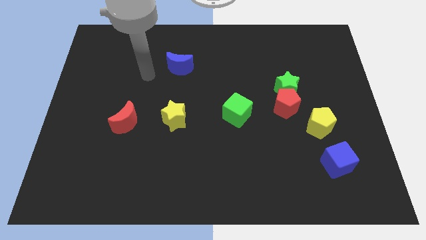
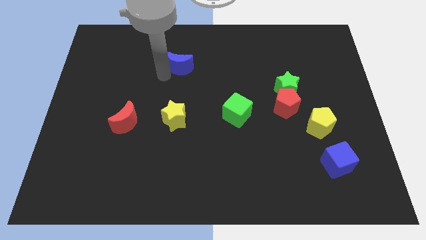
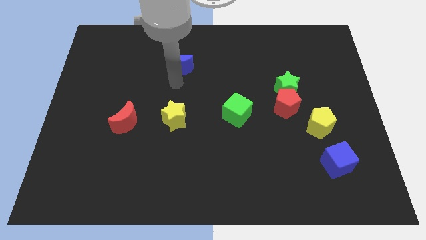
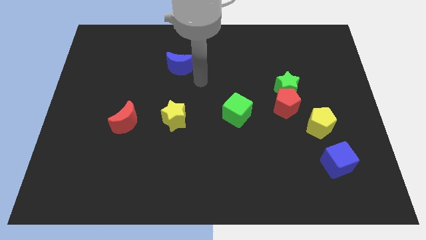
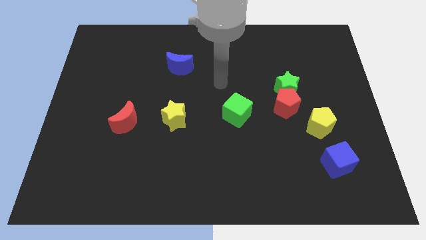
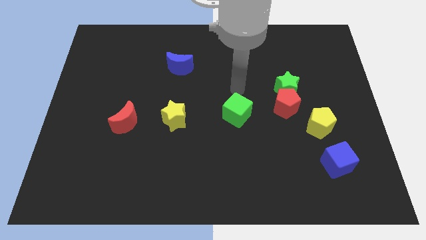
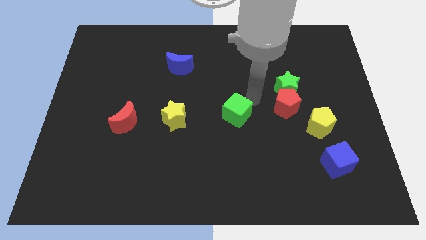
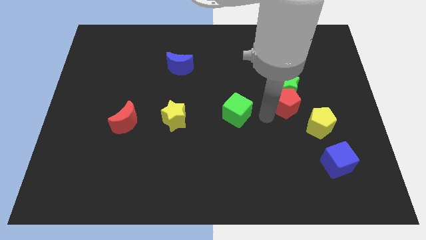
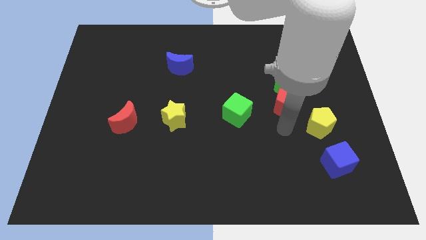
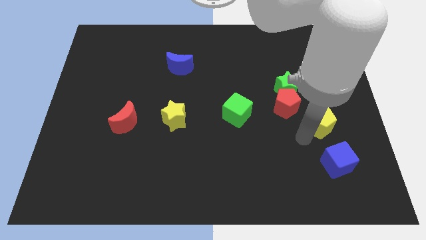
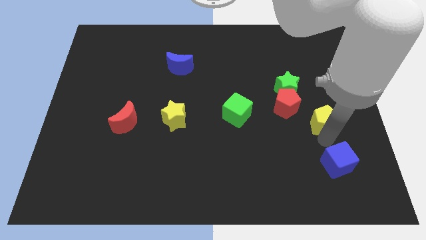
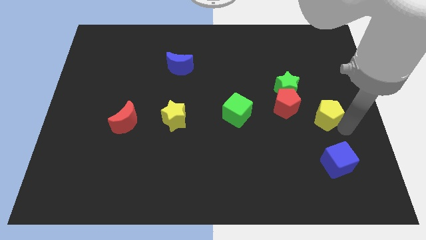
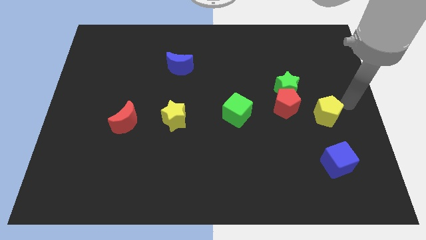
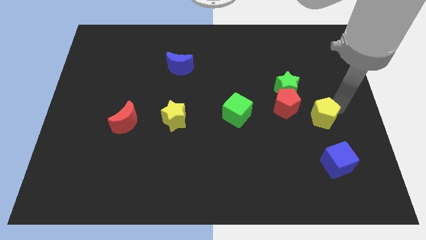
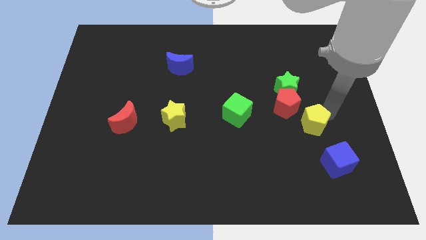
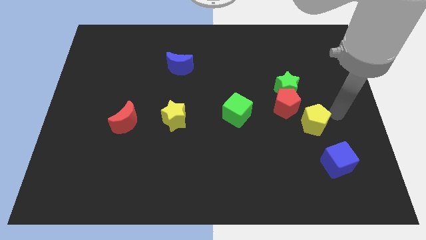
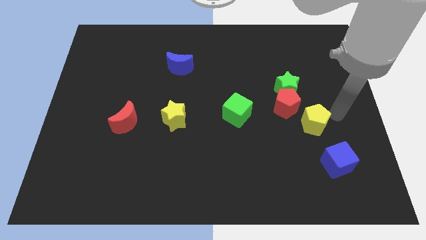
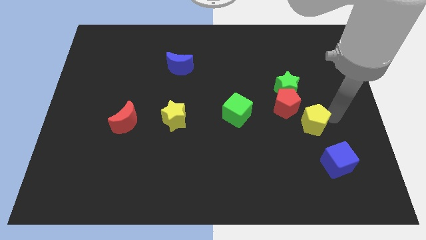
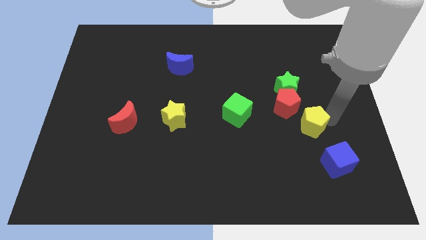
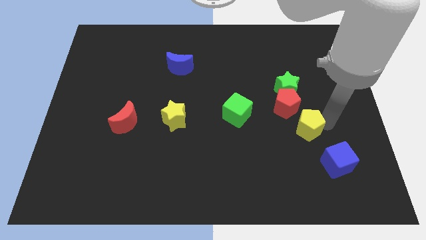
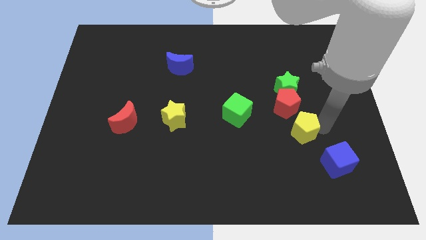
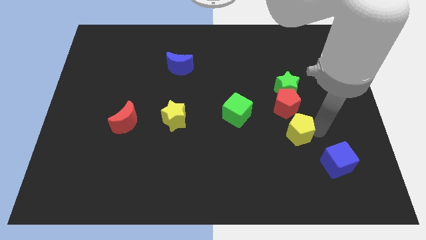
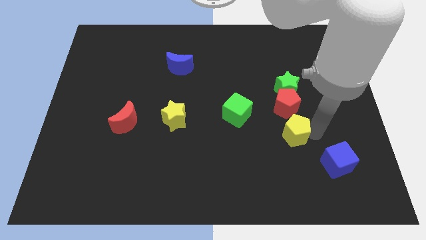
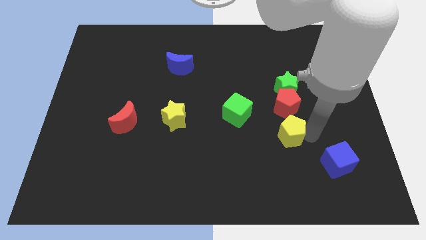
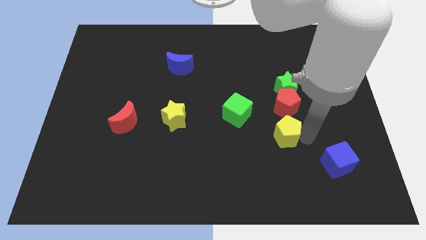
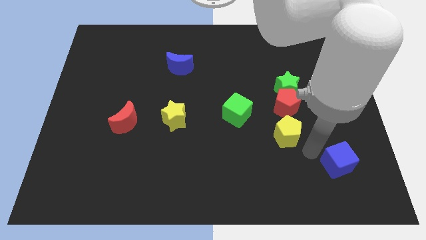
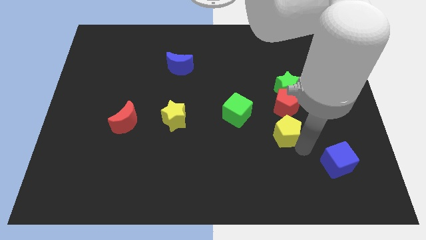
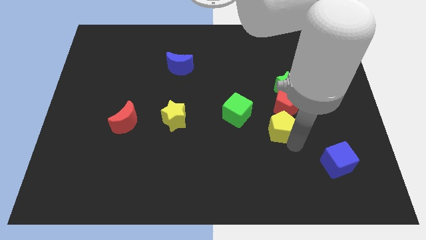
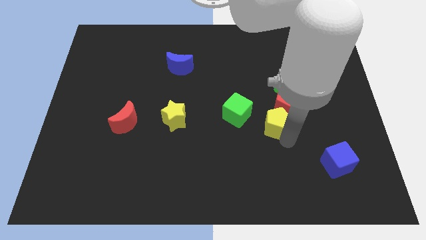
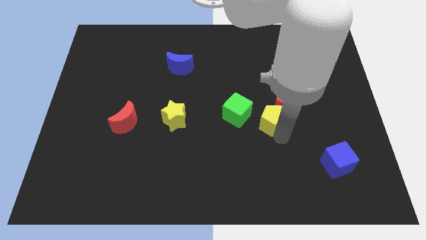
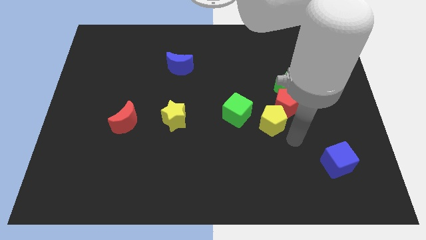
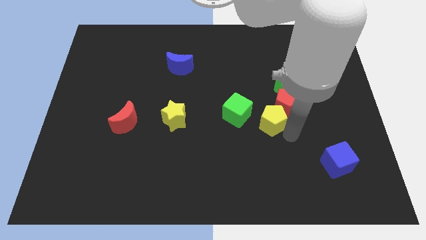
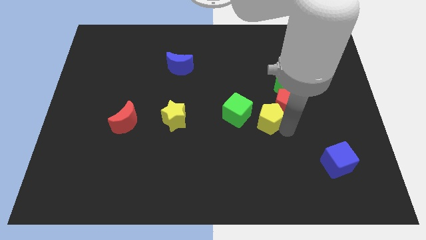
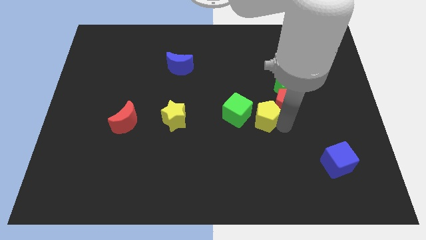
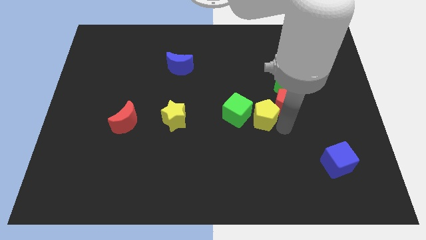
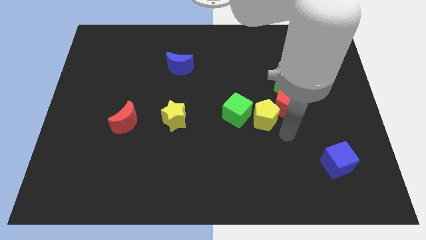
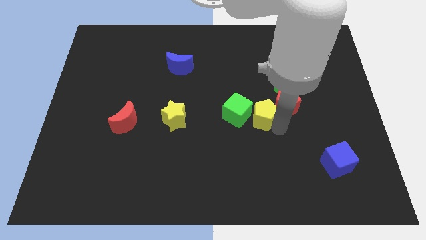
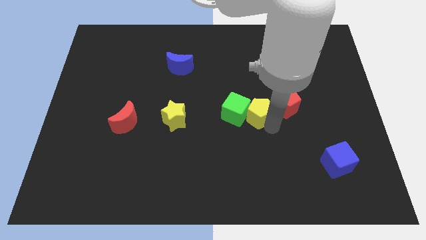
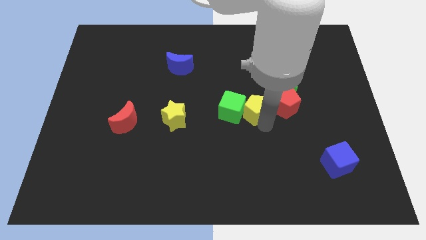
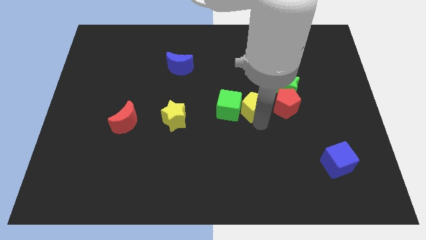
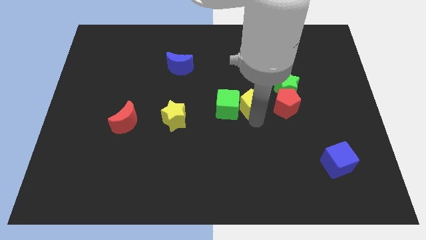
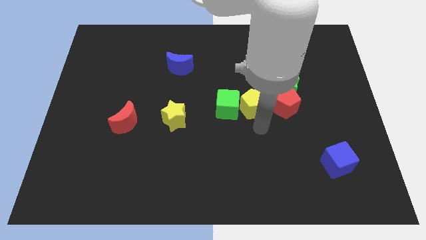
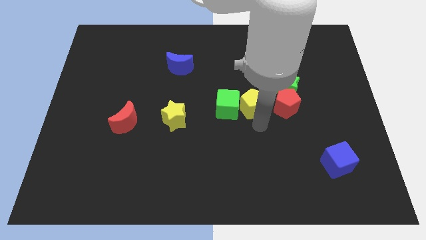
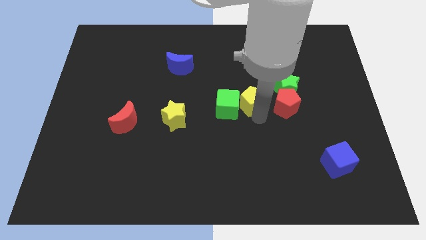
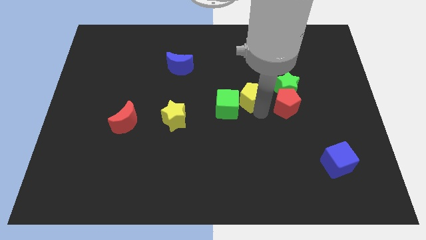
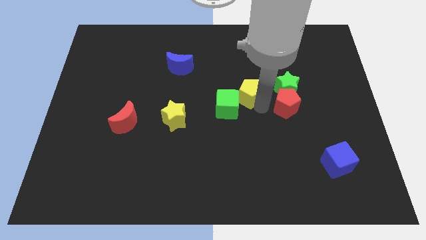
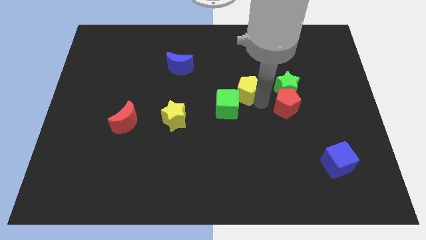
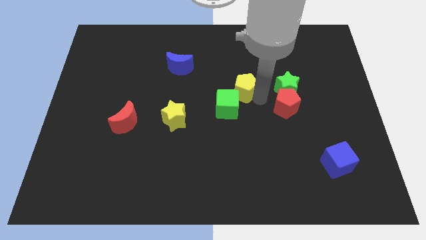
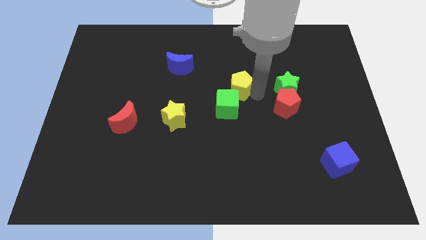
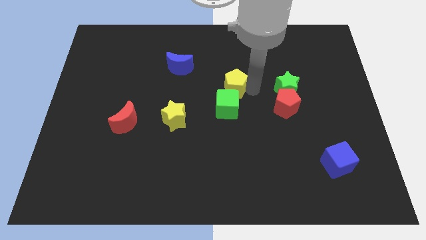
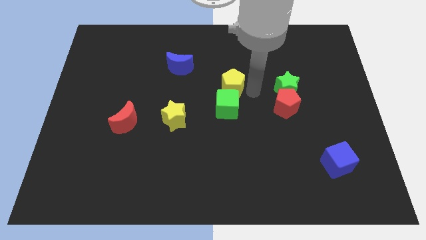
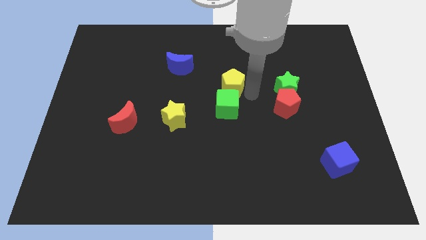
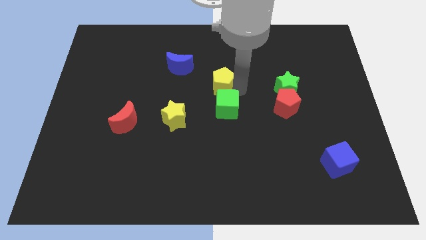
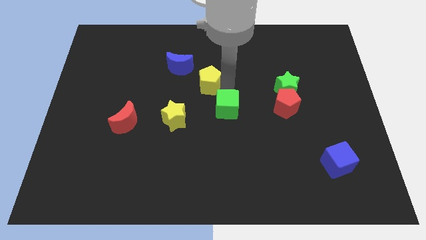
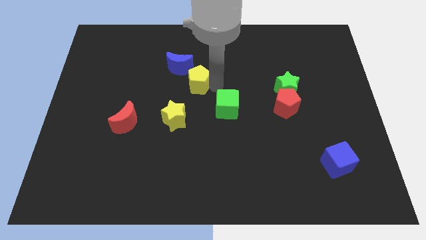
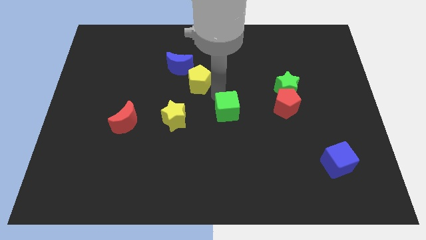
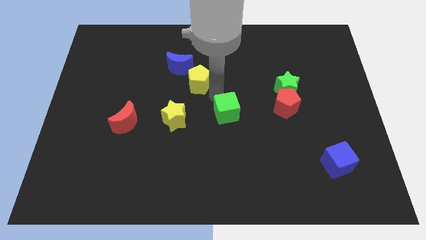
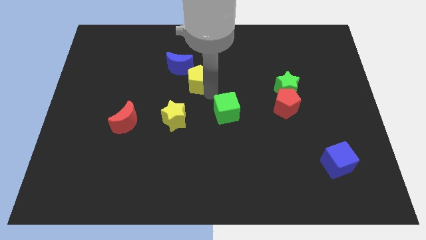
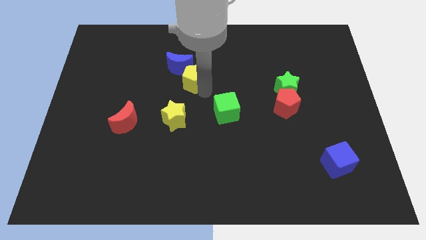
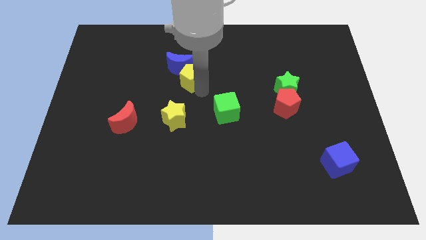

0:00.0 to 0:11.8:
move the yellow pentagon to the blue moon

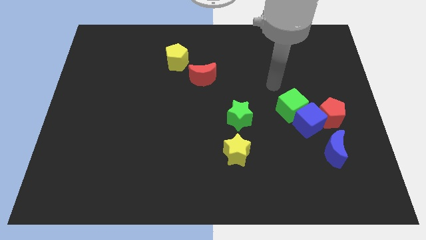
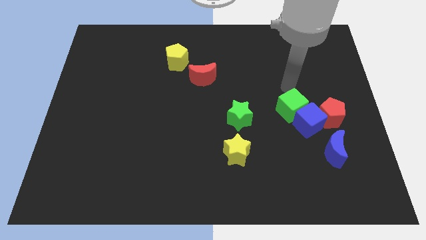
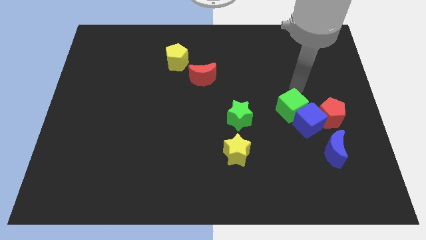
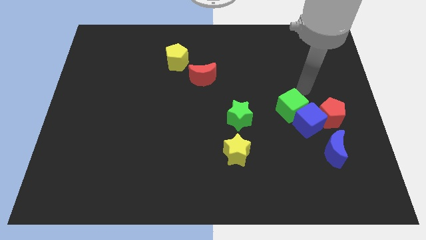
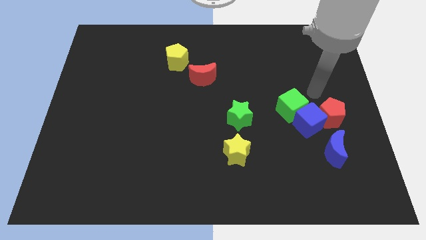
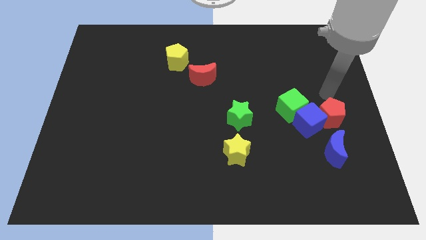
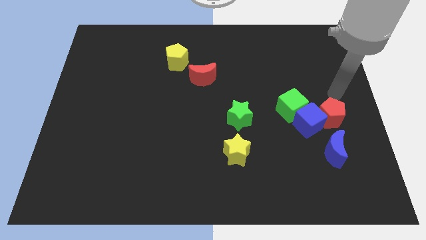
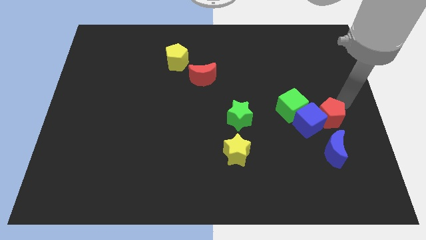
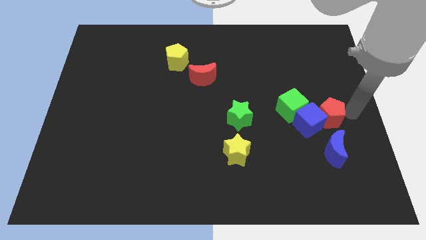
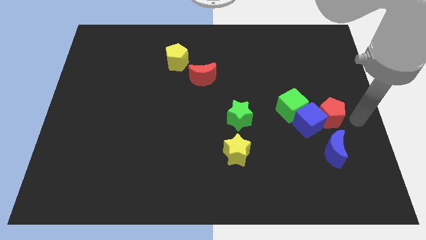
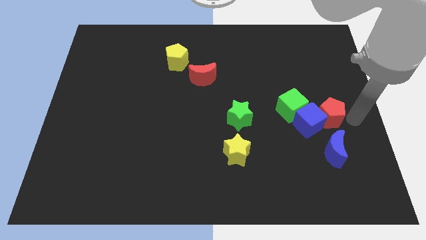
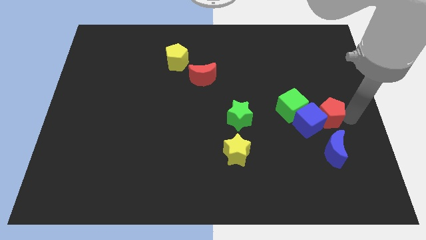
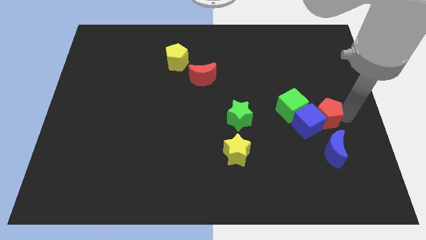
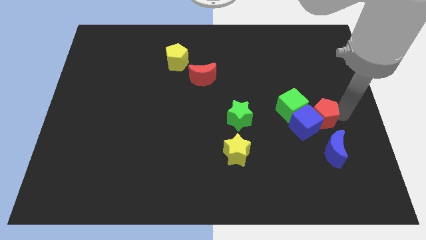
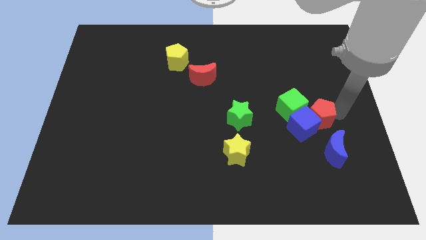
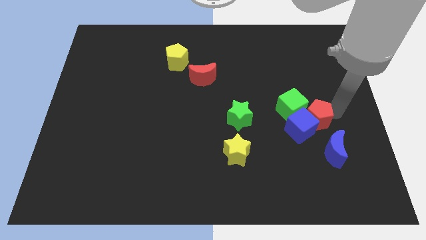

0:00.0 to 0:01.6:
push the red pentagon next to the green cube
